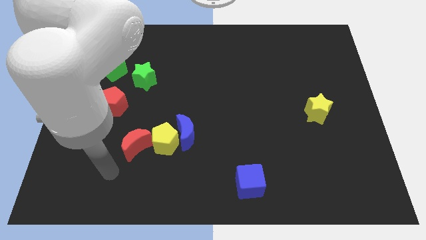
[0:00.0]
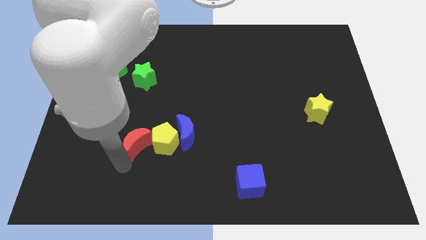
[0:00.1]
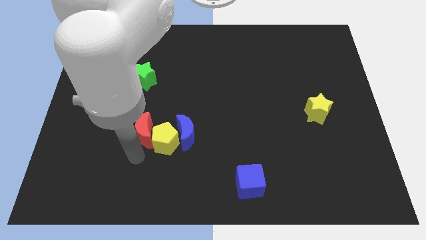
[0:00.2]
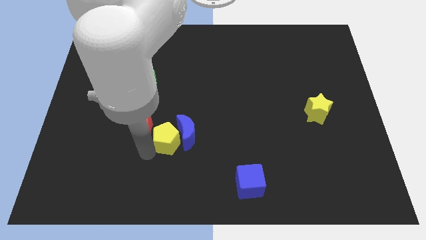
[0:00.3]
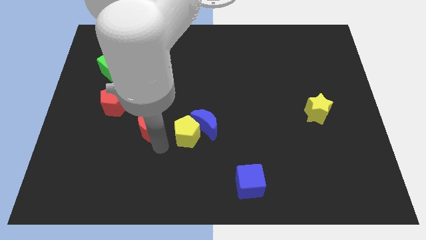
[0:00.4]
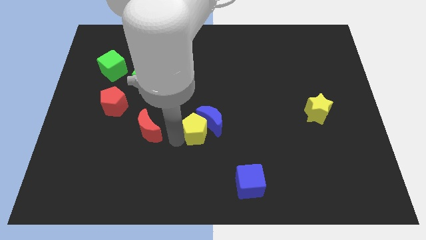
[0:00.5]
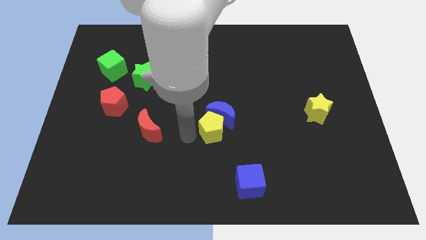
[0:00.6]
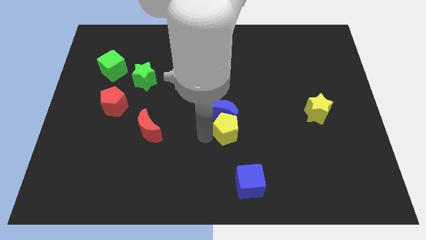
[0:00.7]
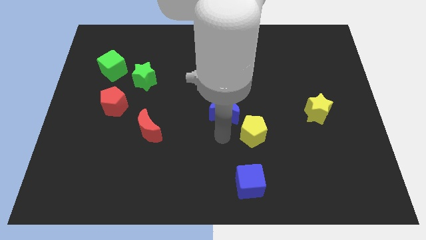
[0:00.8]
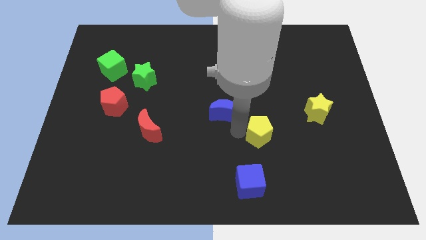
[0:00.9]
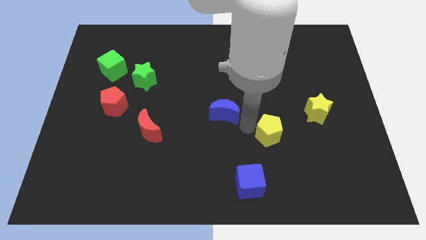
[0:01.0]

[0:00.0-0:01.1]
pull the blue moon apart from the yellow pentagon

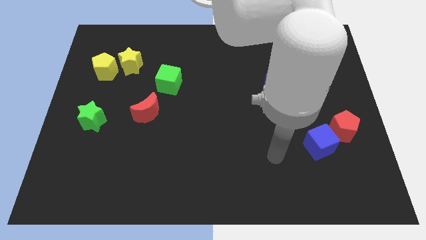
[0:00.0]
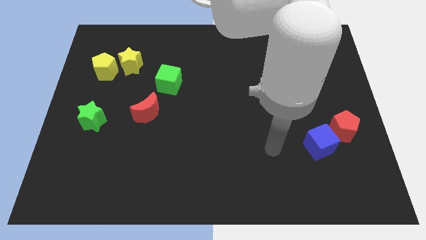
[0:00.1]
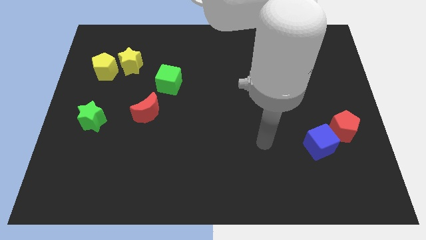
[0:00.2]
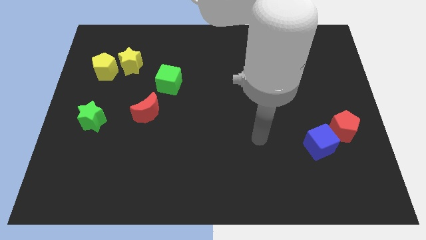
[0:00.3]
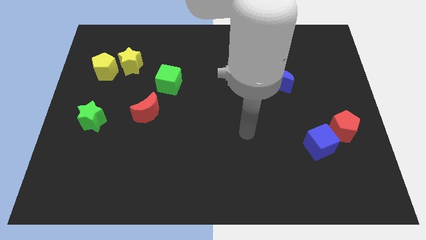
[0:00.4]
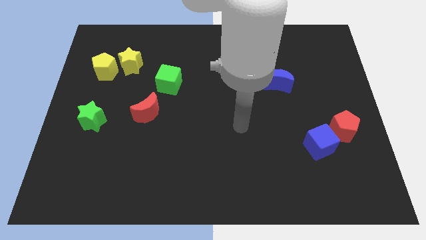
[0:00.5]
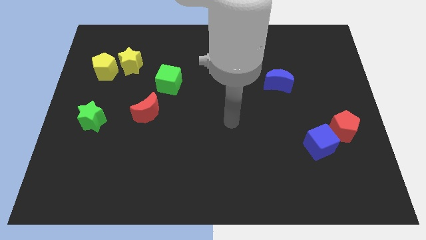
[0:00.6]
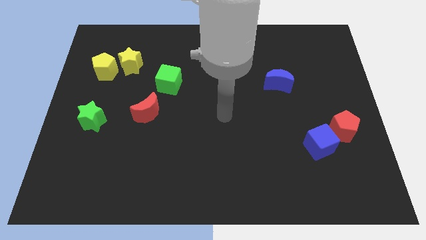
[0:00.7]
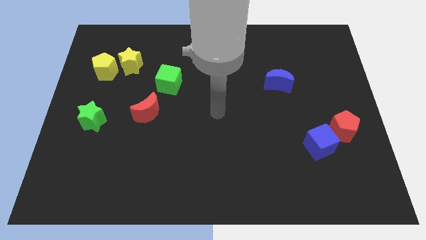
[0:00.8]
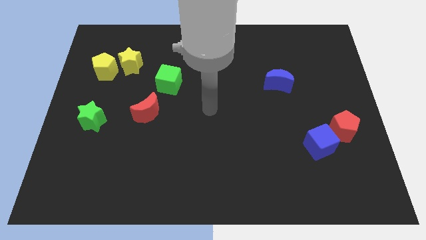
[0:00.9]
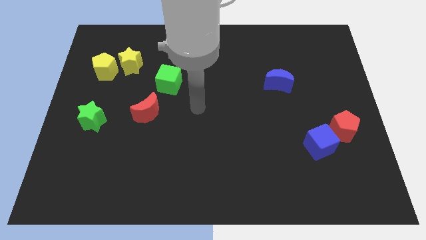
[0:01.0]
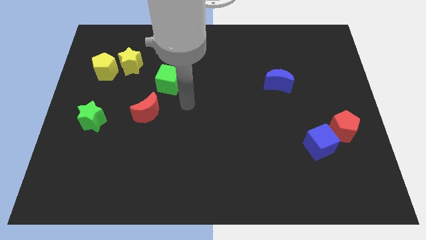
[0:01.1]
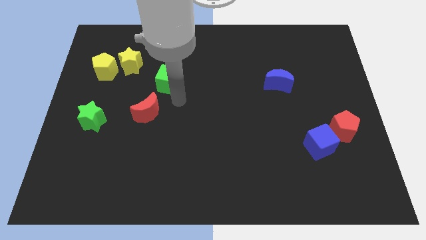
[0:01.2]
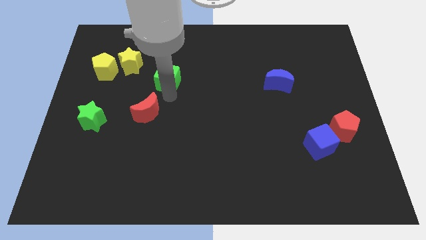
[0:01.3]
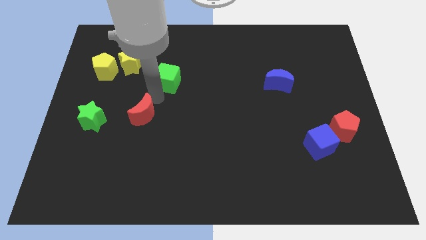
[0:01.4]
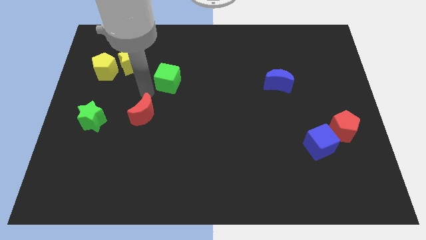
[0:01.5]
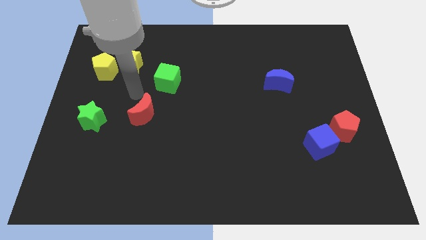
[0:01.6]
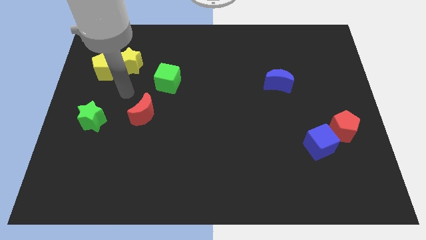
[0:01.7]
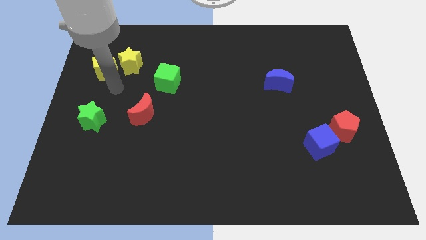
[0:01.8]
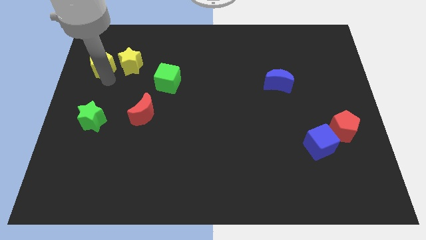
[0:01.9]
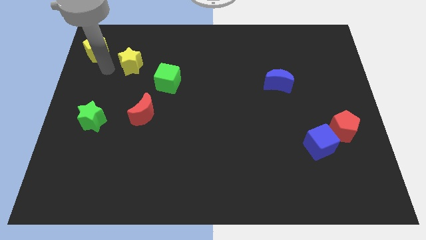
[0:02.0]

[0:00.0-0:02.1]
pull the yellow star apart from the yellow pentagon

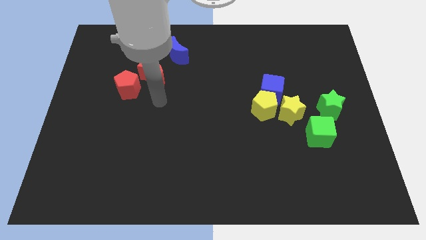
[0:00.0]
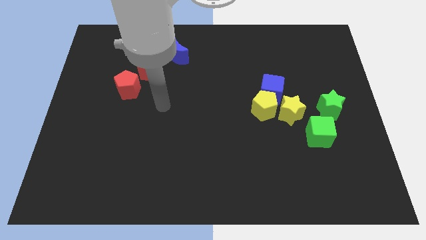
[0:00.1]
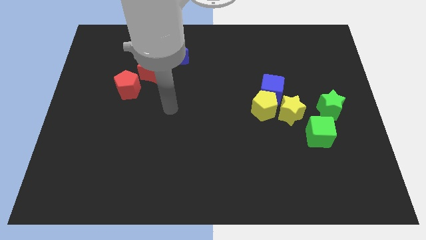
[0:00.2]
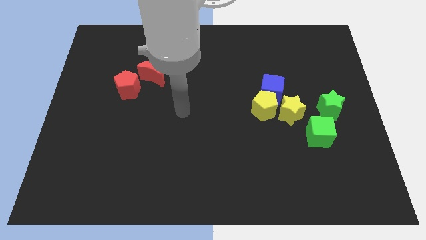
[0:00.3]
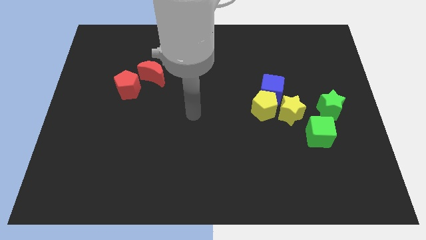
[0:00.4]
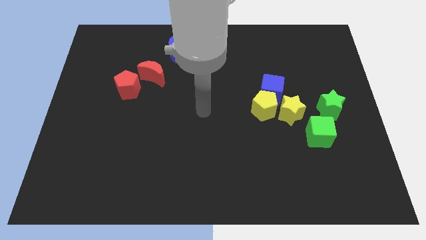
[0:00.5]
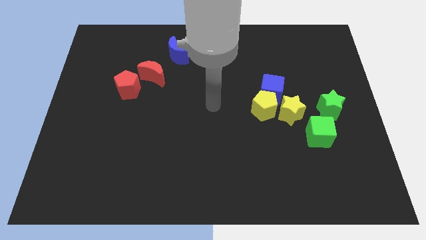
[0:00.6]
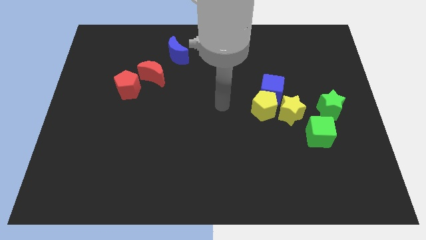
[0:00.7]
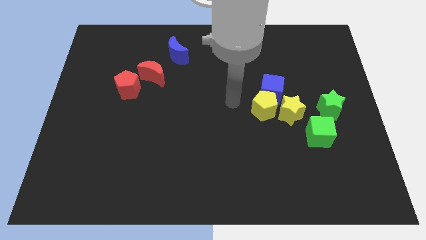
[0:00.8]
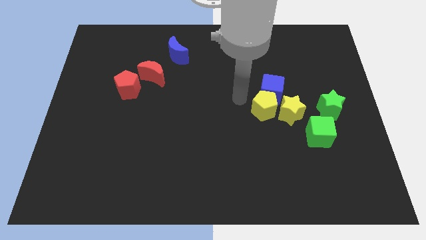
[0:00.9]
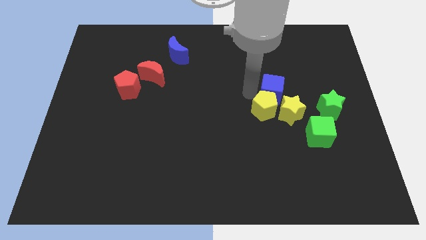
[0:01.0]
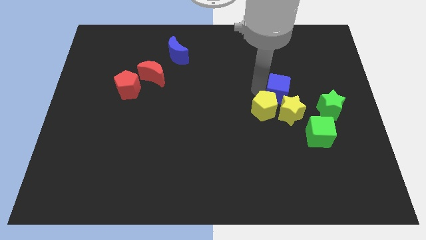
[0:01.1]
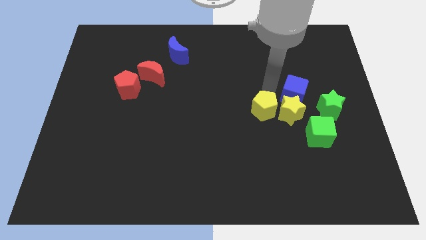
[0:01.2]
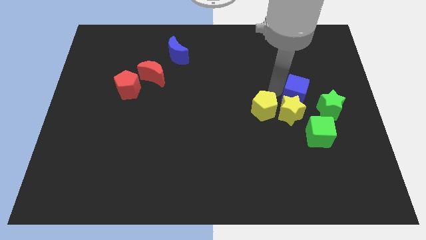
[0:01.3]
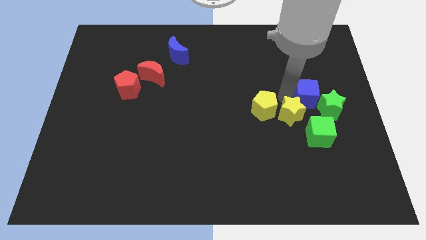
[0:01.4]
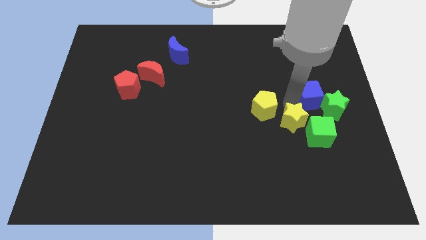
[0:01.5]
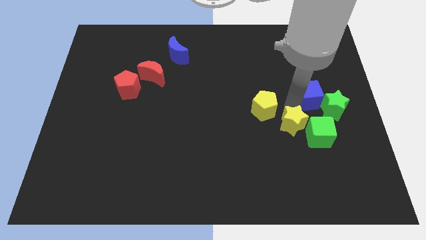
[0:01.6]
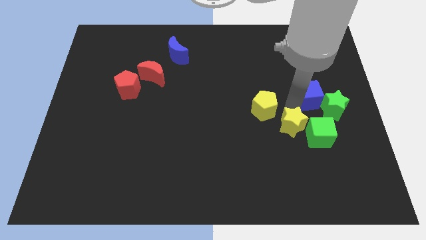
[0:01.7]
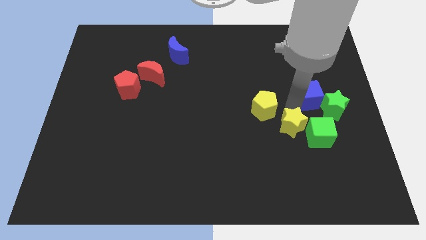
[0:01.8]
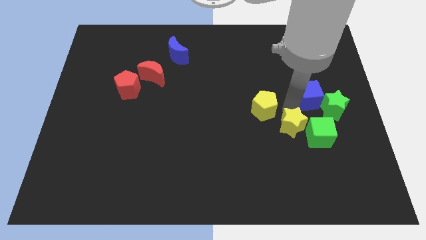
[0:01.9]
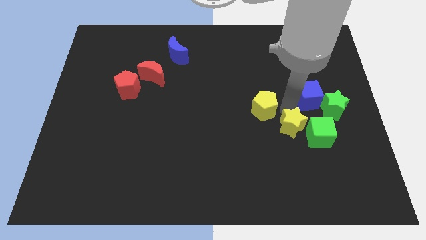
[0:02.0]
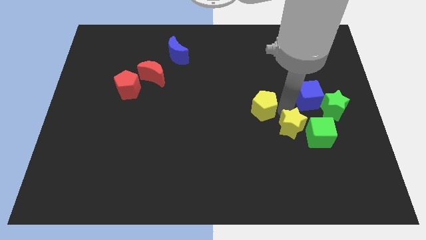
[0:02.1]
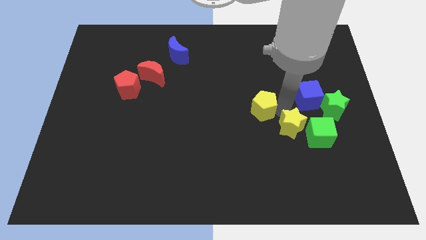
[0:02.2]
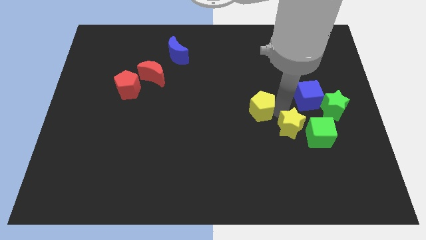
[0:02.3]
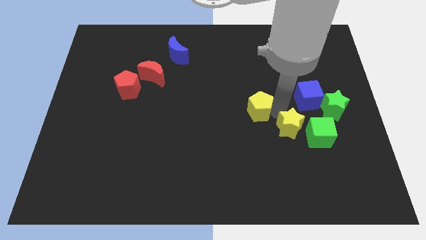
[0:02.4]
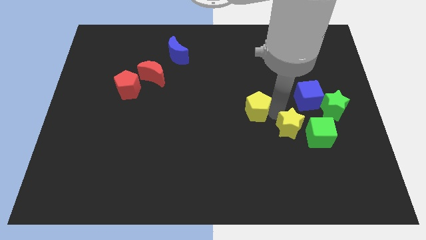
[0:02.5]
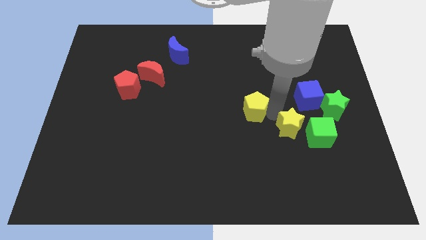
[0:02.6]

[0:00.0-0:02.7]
separate the yellow pentagon from the blue cube and yellow star

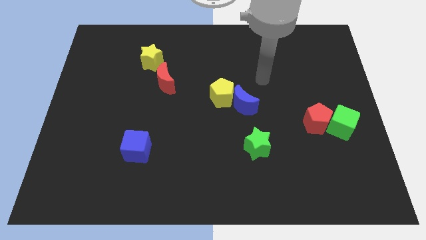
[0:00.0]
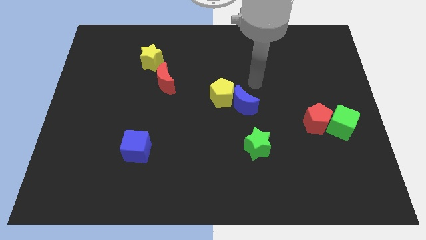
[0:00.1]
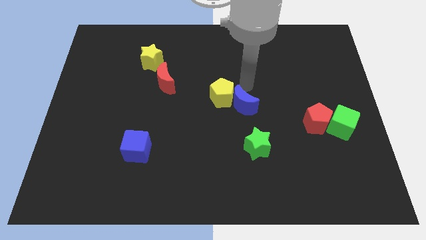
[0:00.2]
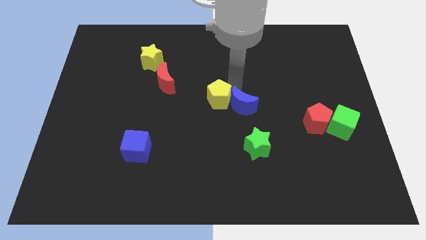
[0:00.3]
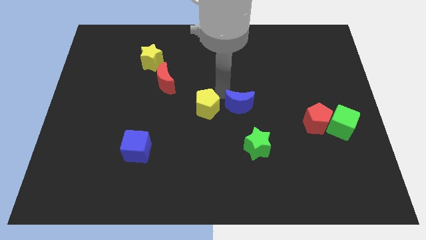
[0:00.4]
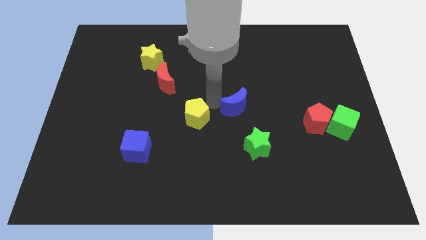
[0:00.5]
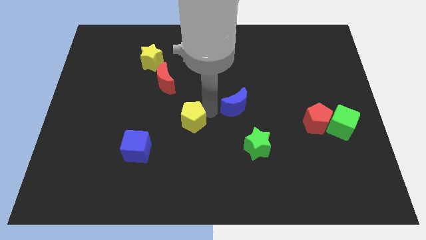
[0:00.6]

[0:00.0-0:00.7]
separate the blue moon from the yellow pentagon

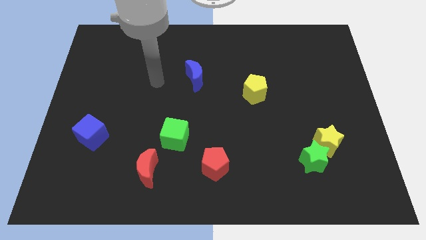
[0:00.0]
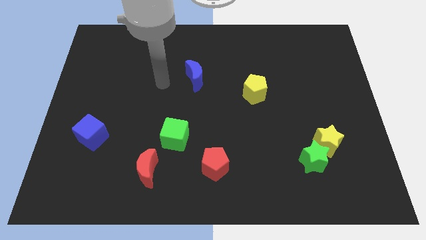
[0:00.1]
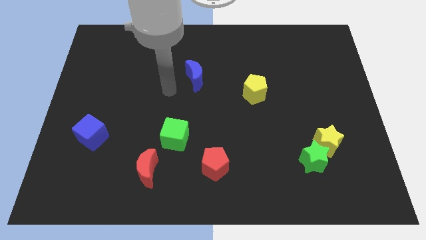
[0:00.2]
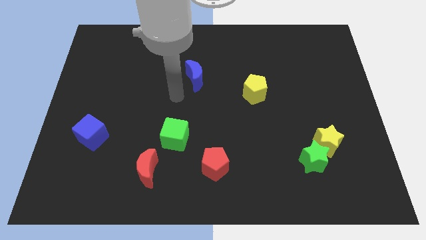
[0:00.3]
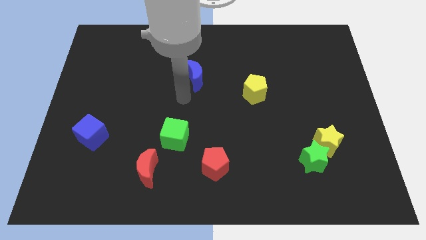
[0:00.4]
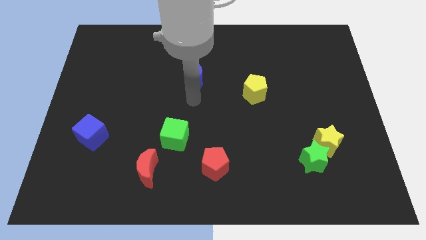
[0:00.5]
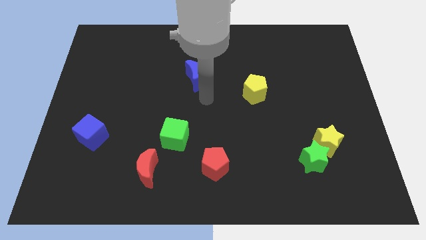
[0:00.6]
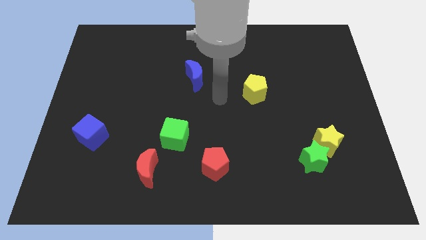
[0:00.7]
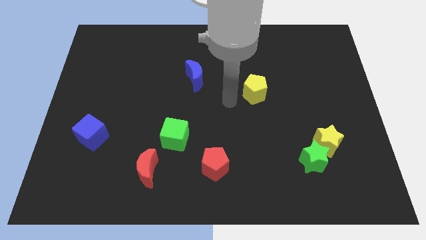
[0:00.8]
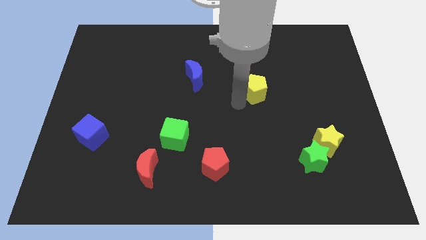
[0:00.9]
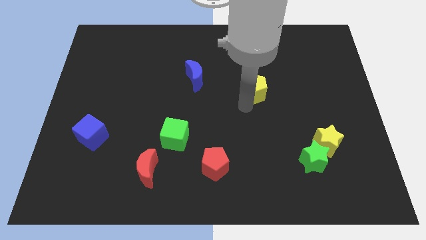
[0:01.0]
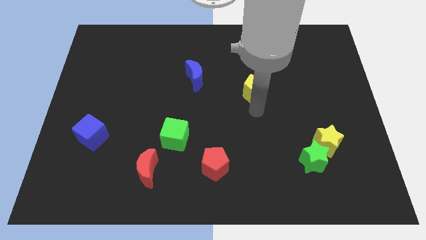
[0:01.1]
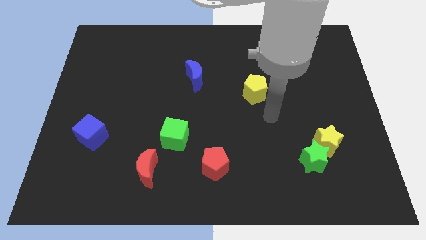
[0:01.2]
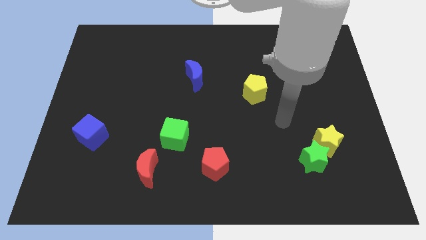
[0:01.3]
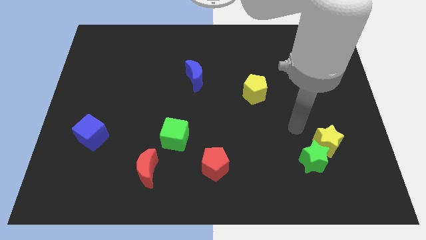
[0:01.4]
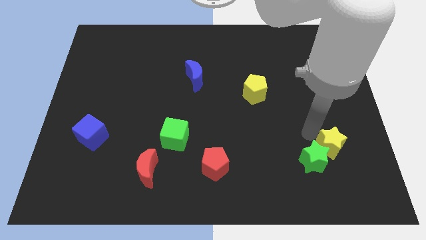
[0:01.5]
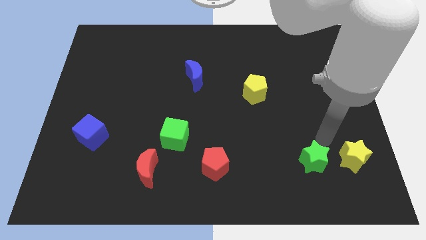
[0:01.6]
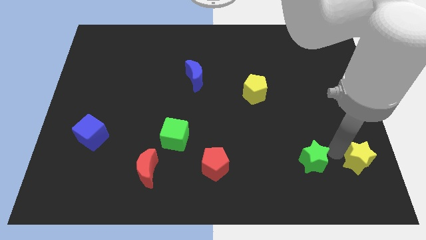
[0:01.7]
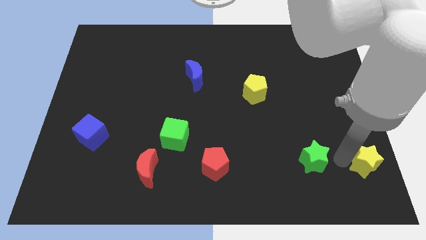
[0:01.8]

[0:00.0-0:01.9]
move the green star away from the yellow star

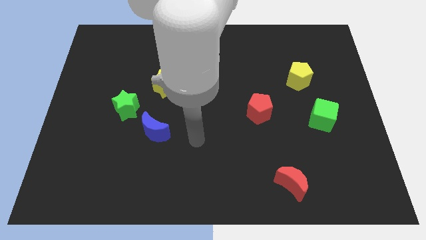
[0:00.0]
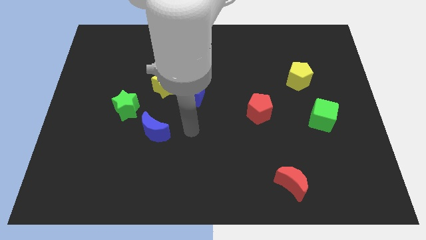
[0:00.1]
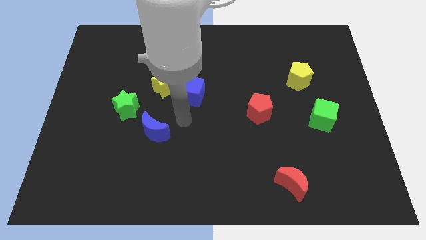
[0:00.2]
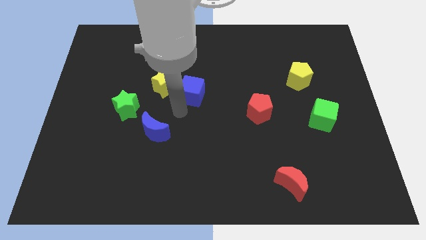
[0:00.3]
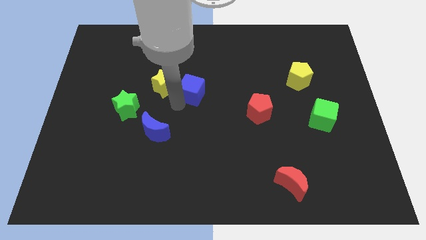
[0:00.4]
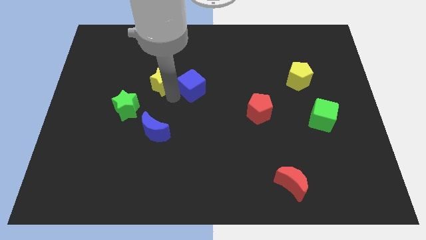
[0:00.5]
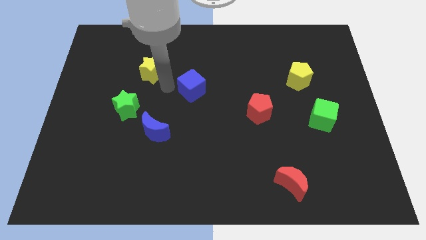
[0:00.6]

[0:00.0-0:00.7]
separate the blue cube from the yellow star
